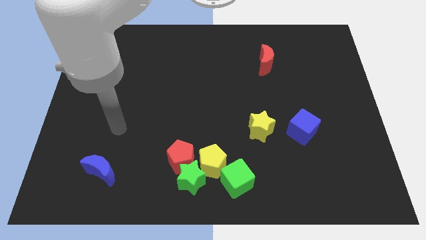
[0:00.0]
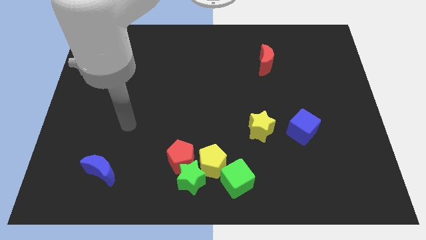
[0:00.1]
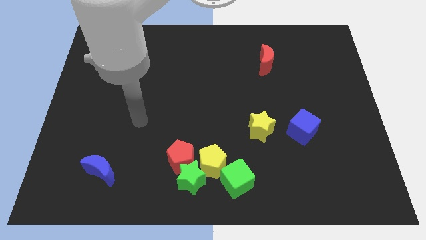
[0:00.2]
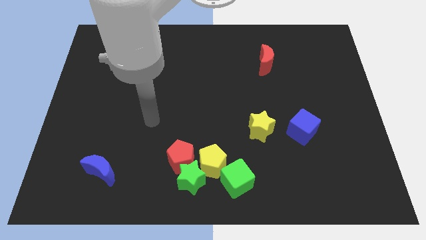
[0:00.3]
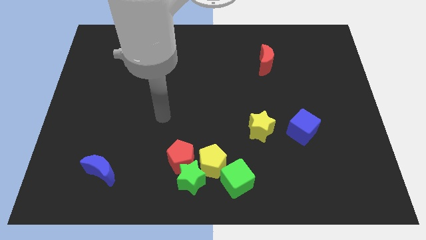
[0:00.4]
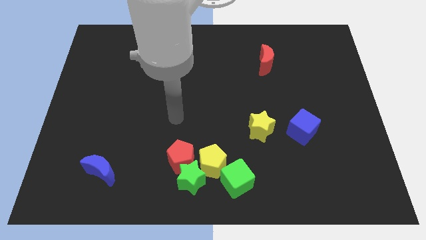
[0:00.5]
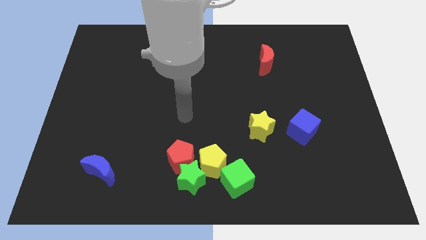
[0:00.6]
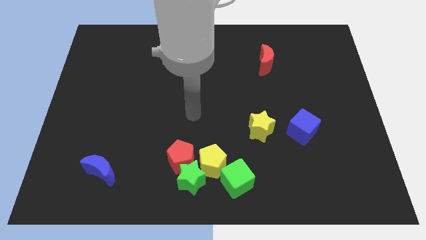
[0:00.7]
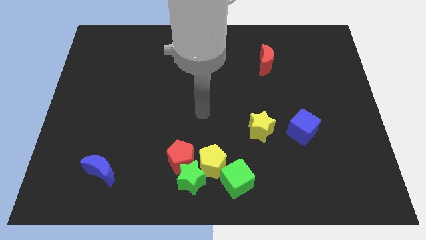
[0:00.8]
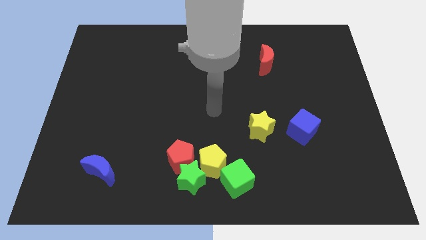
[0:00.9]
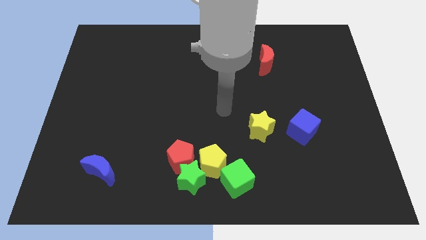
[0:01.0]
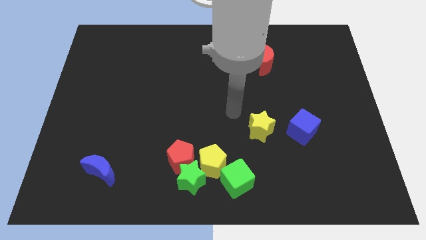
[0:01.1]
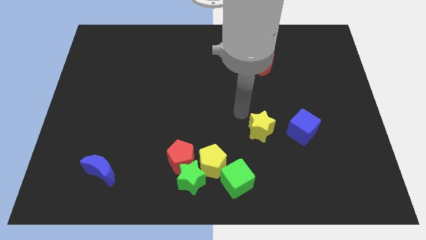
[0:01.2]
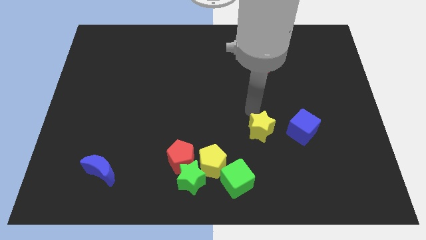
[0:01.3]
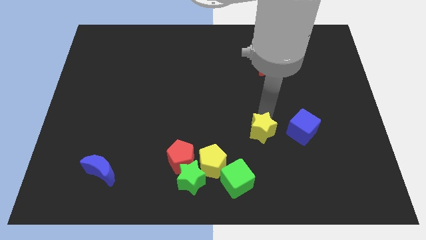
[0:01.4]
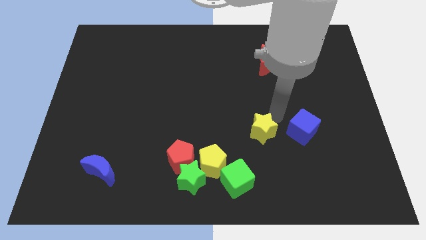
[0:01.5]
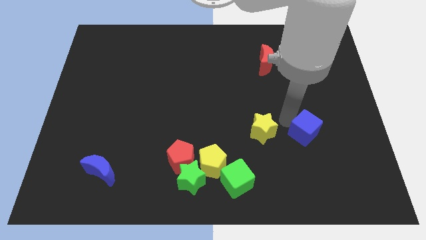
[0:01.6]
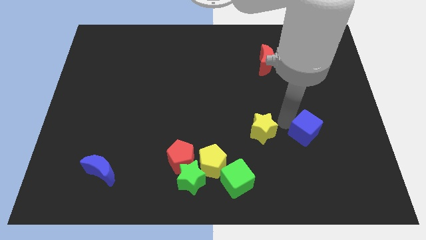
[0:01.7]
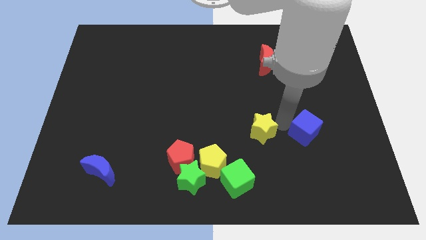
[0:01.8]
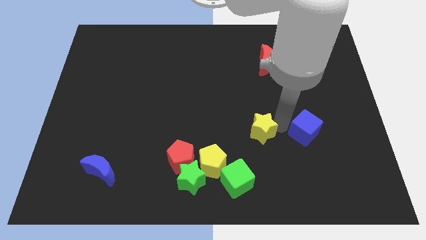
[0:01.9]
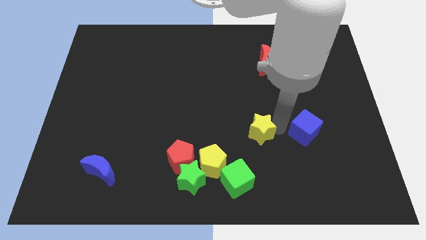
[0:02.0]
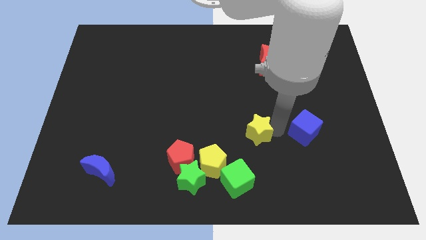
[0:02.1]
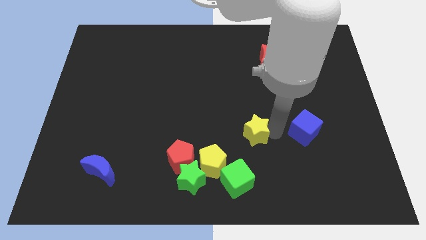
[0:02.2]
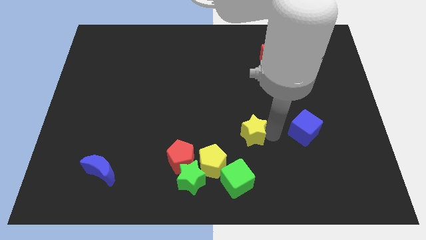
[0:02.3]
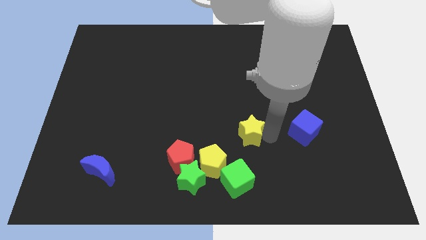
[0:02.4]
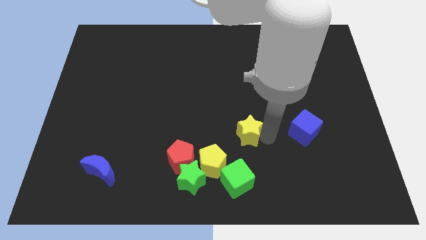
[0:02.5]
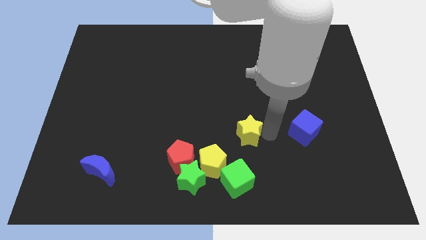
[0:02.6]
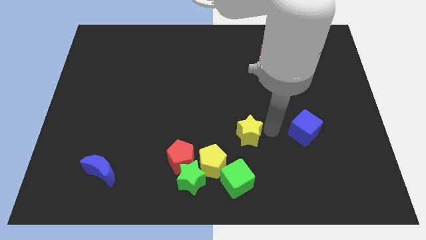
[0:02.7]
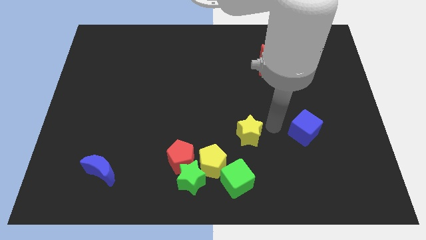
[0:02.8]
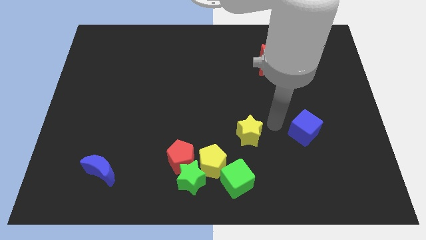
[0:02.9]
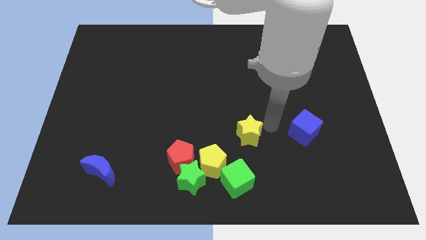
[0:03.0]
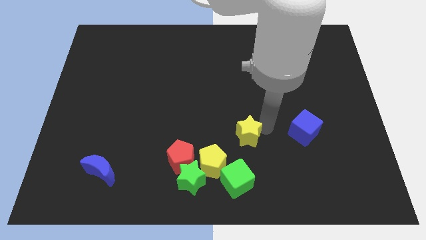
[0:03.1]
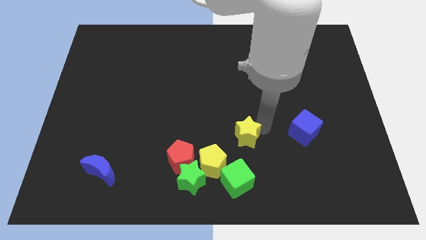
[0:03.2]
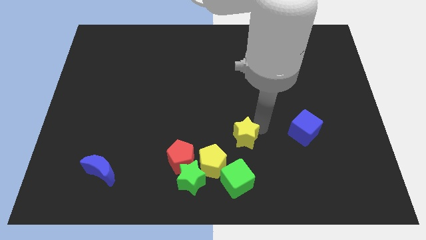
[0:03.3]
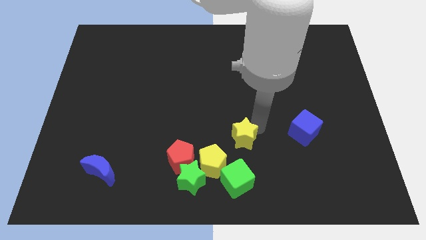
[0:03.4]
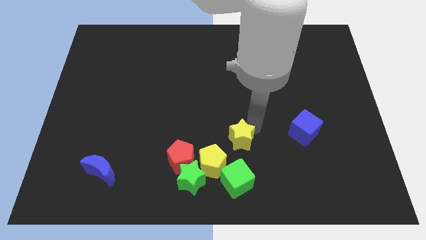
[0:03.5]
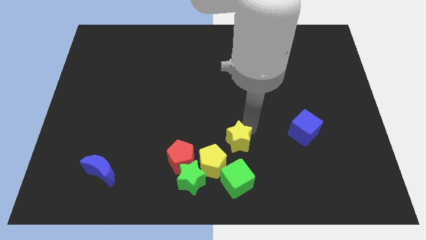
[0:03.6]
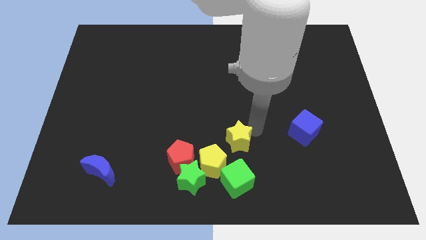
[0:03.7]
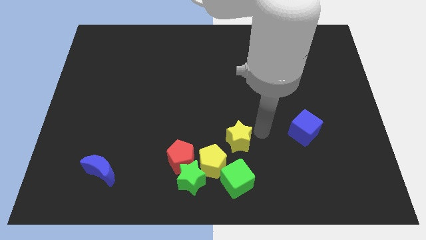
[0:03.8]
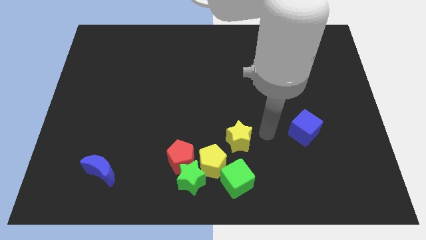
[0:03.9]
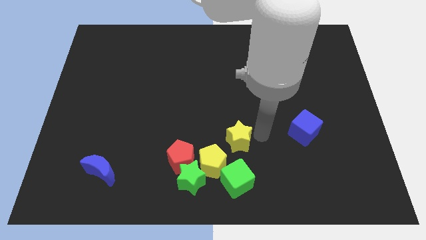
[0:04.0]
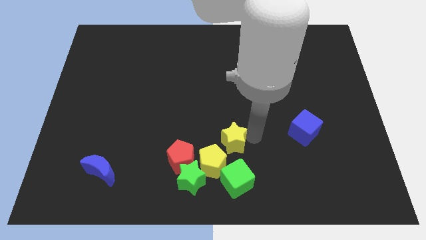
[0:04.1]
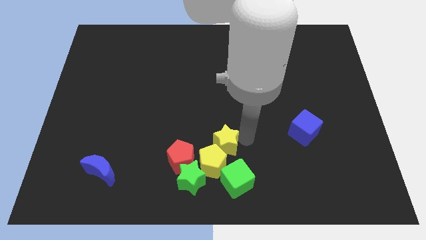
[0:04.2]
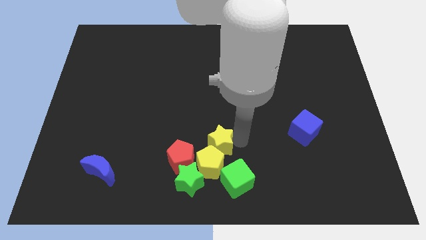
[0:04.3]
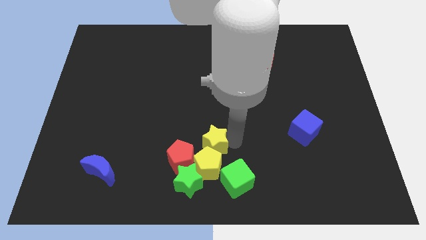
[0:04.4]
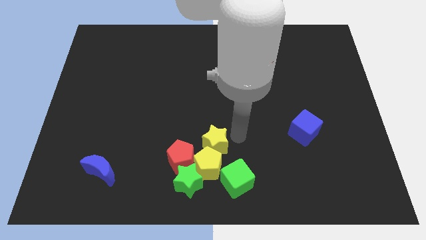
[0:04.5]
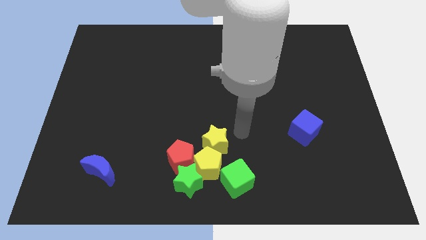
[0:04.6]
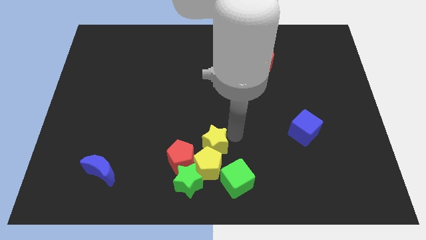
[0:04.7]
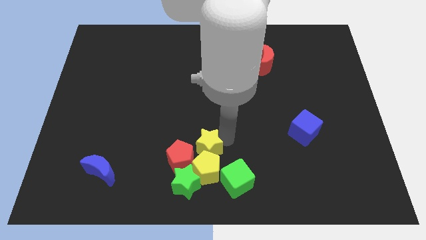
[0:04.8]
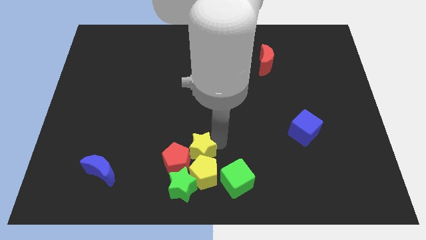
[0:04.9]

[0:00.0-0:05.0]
move the yellow star next to the red pentagon

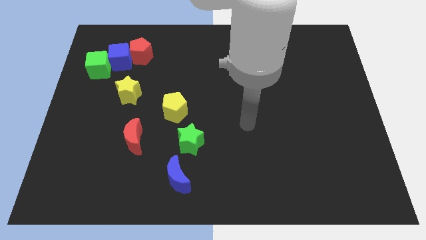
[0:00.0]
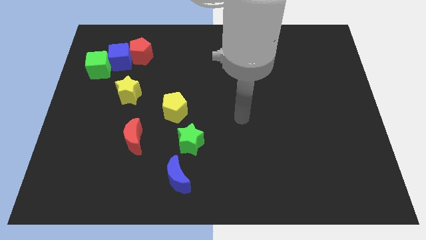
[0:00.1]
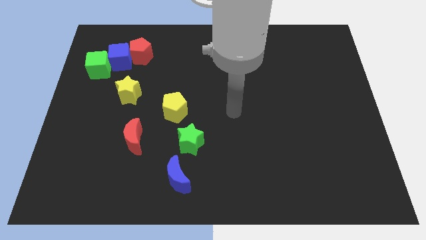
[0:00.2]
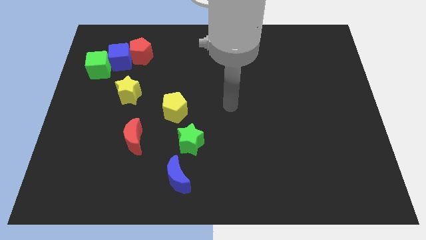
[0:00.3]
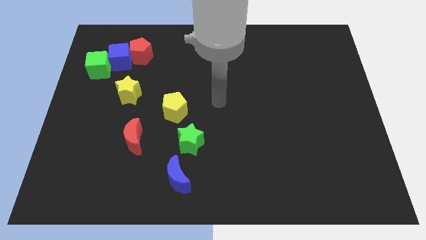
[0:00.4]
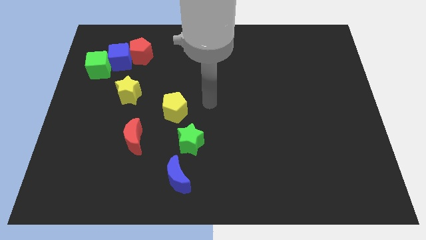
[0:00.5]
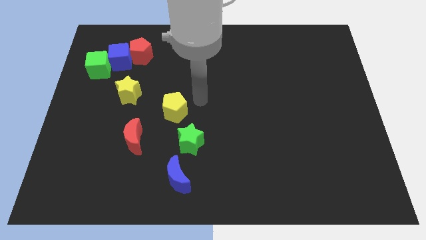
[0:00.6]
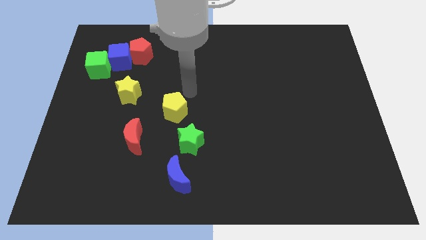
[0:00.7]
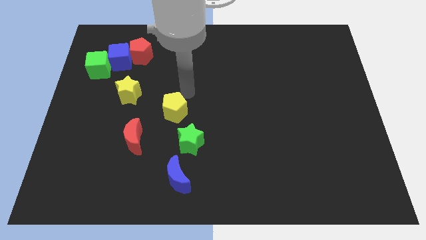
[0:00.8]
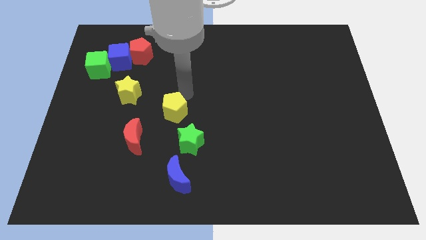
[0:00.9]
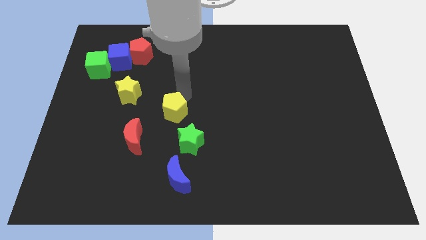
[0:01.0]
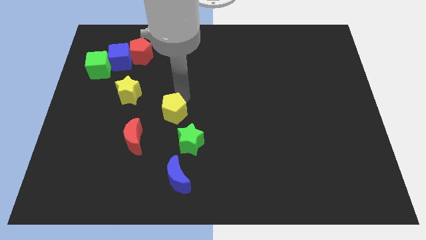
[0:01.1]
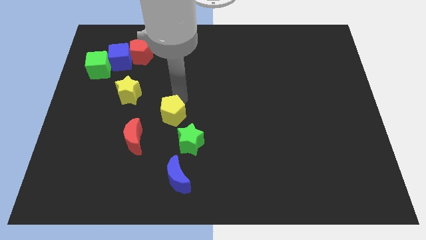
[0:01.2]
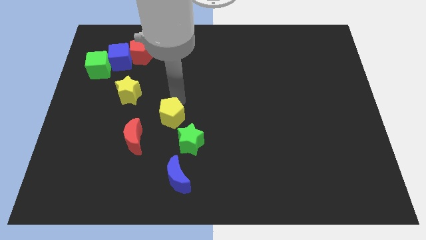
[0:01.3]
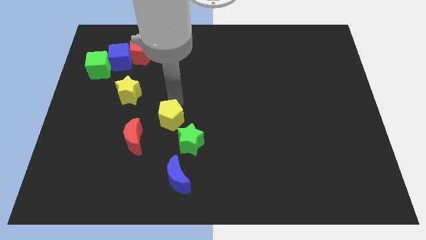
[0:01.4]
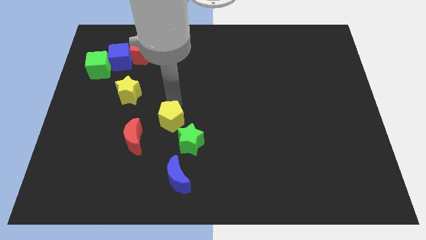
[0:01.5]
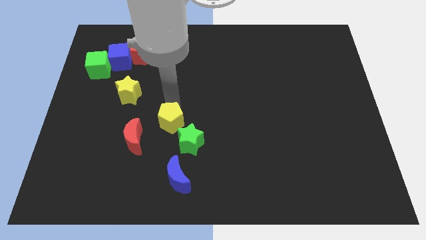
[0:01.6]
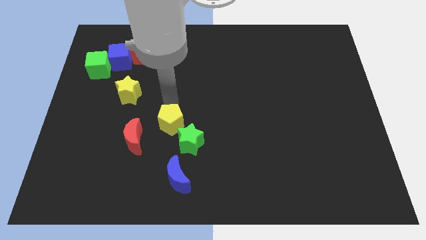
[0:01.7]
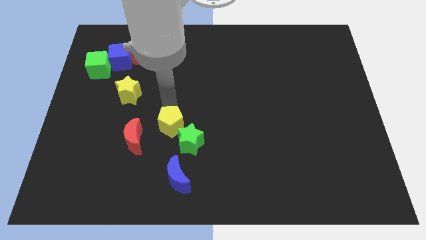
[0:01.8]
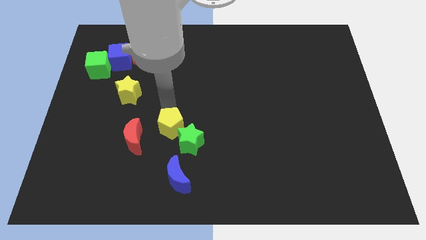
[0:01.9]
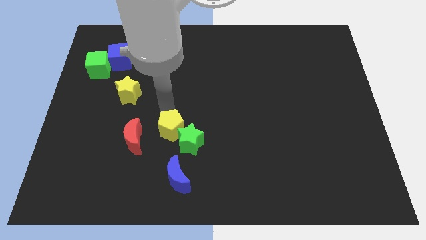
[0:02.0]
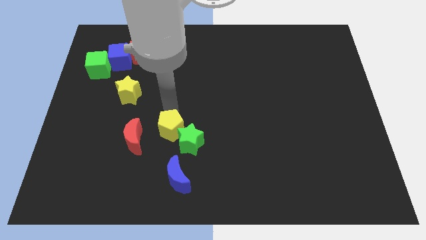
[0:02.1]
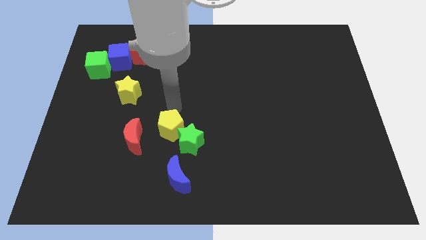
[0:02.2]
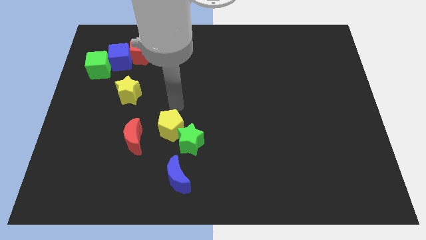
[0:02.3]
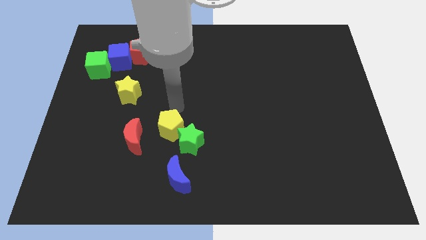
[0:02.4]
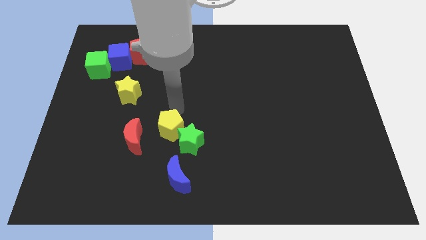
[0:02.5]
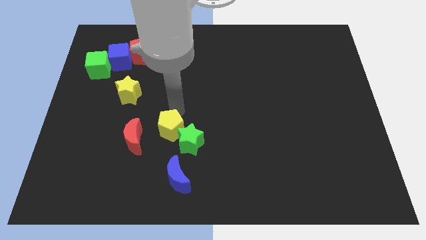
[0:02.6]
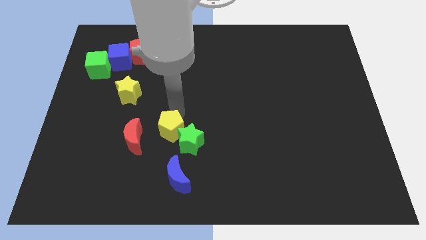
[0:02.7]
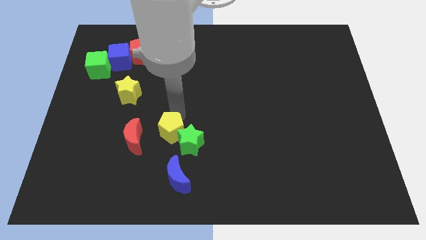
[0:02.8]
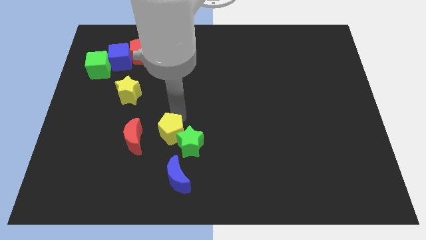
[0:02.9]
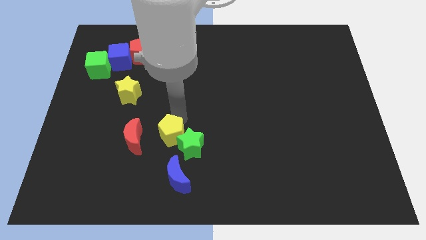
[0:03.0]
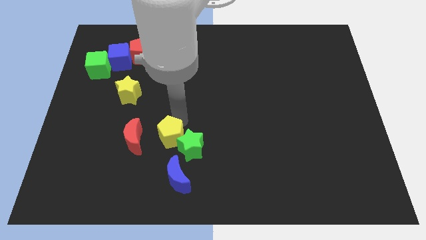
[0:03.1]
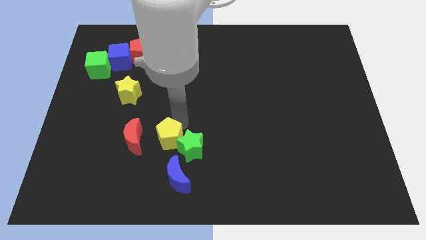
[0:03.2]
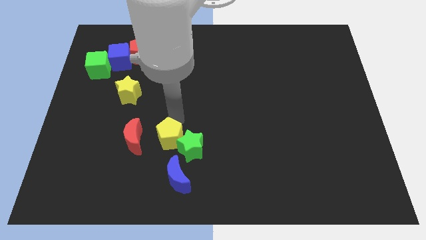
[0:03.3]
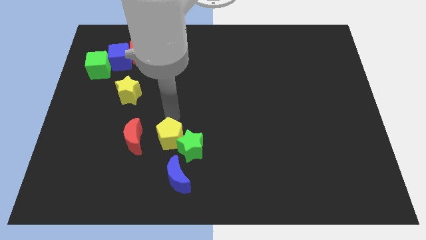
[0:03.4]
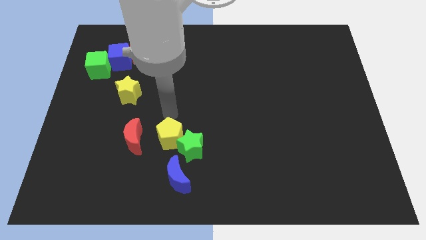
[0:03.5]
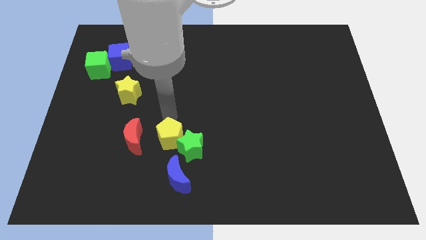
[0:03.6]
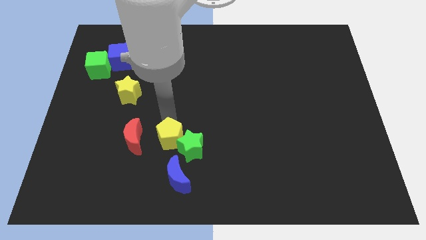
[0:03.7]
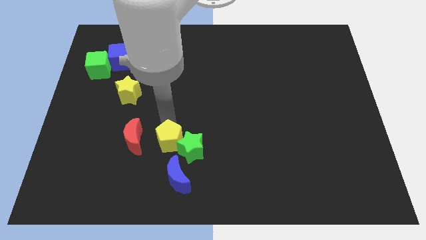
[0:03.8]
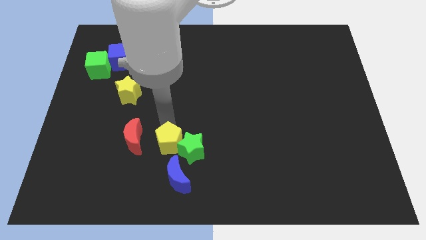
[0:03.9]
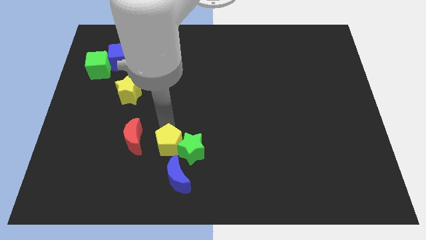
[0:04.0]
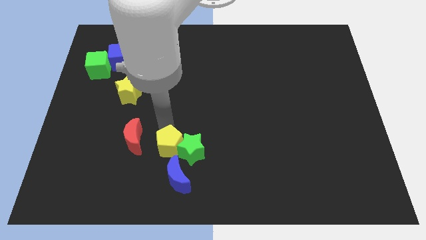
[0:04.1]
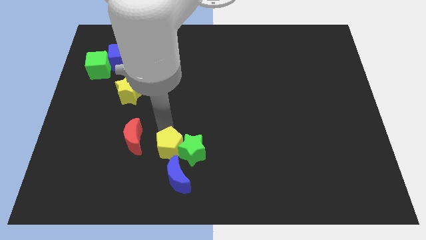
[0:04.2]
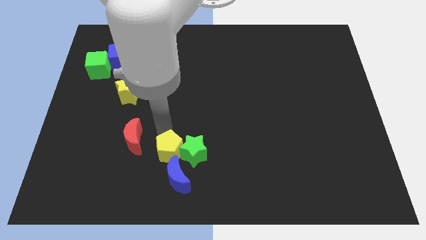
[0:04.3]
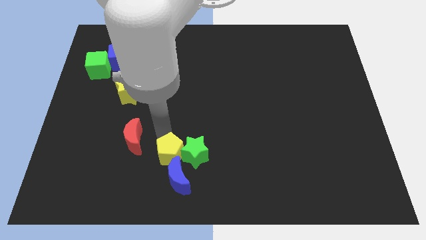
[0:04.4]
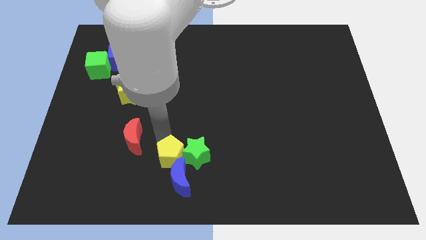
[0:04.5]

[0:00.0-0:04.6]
put the yellow pentagon to the blue moon
